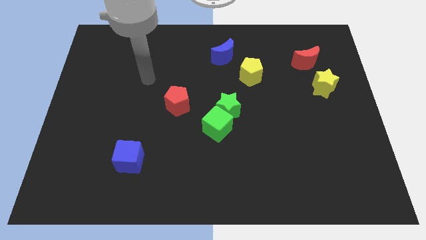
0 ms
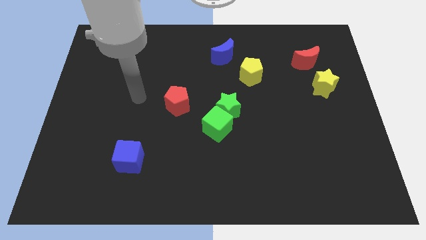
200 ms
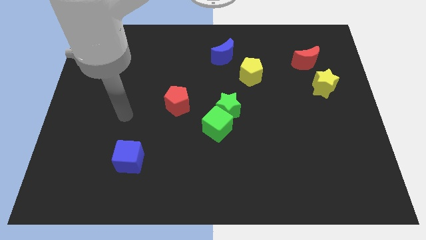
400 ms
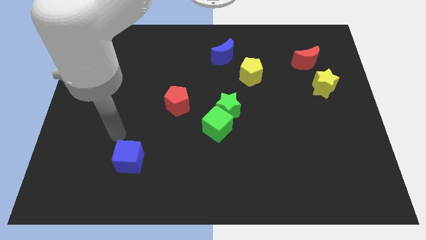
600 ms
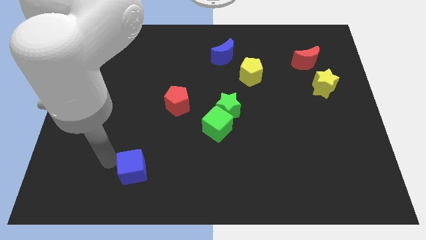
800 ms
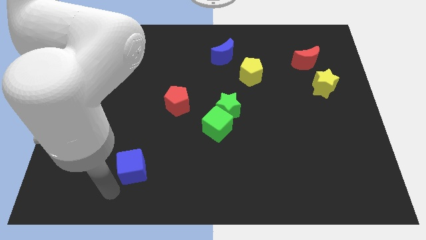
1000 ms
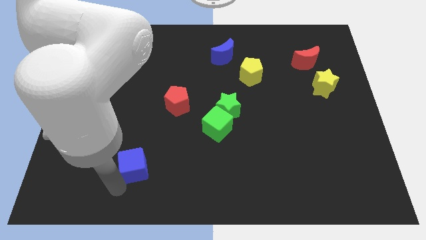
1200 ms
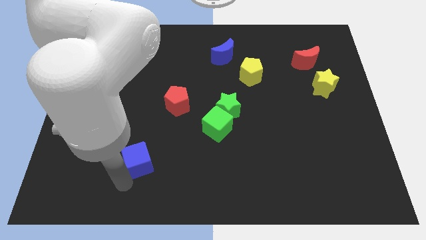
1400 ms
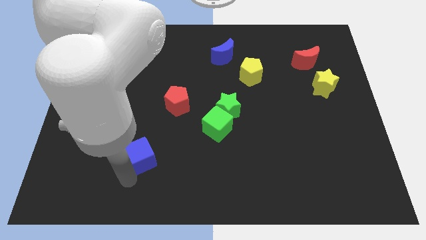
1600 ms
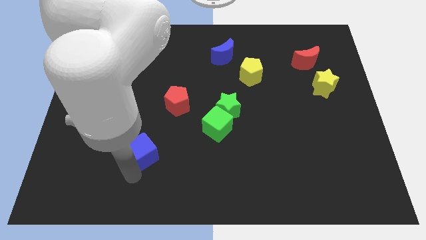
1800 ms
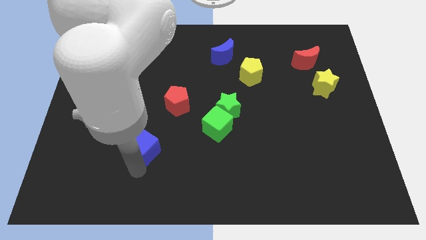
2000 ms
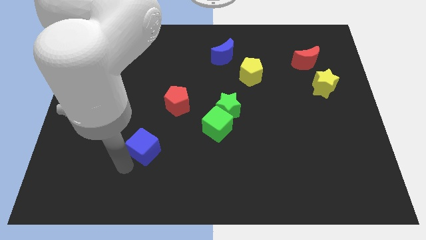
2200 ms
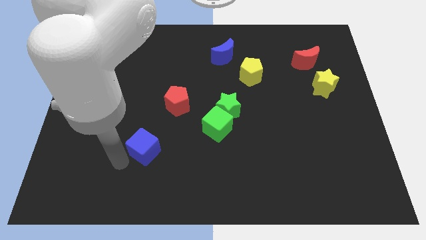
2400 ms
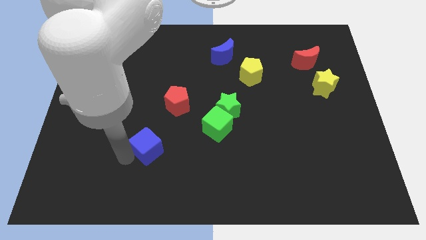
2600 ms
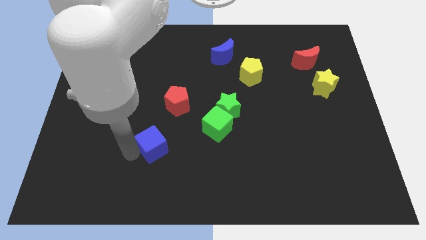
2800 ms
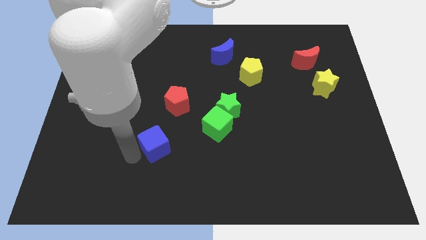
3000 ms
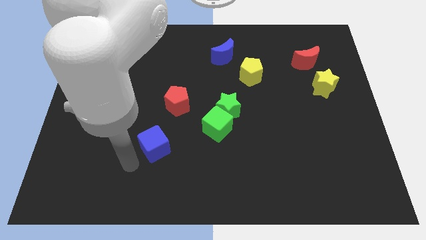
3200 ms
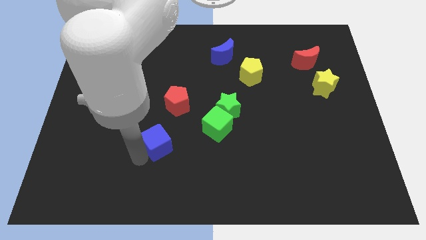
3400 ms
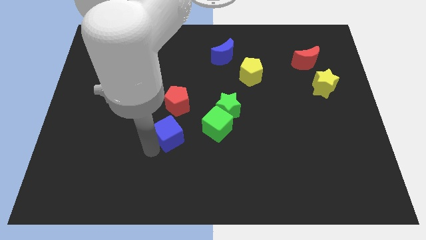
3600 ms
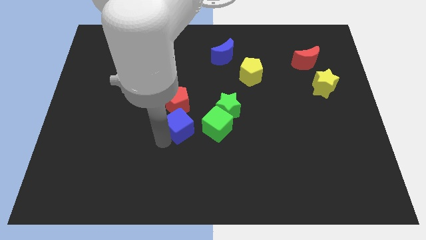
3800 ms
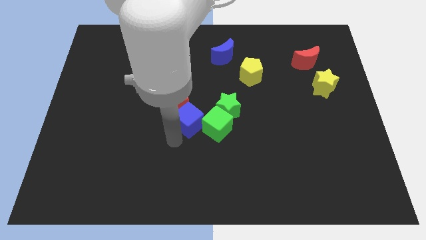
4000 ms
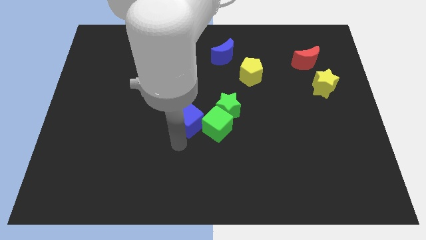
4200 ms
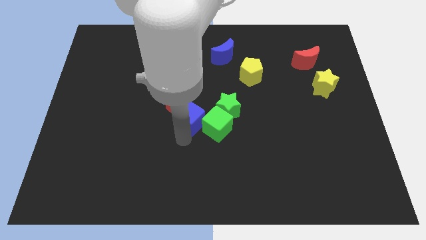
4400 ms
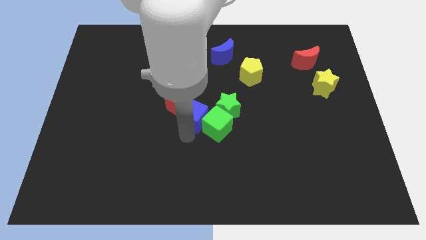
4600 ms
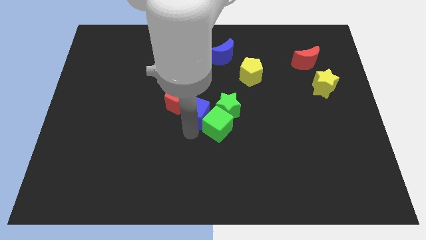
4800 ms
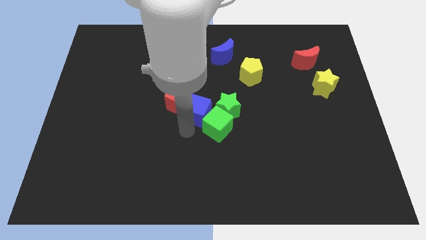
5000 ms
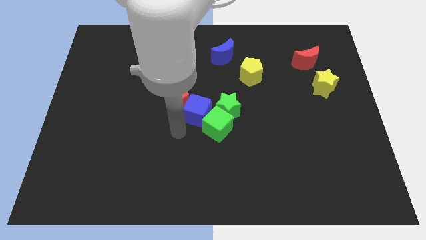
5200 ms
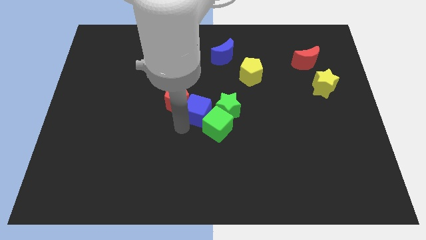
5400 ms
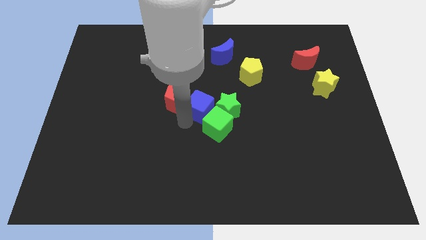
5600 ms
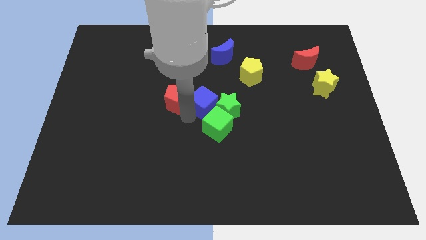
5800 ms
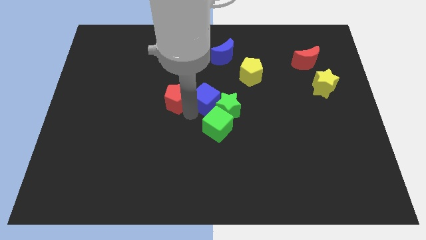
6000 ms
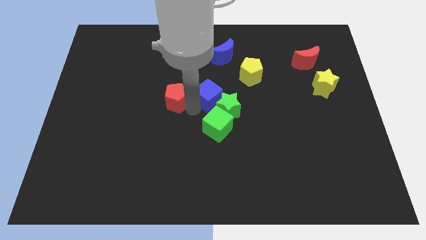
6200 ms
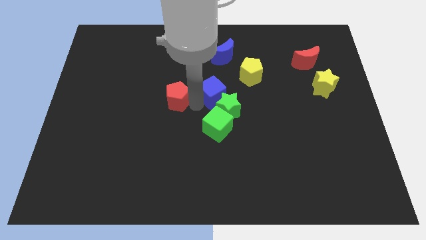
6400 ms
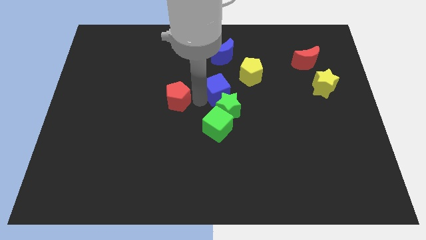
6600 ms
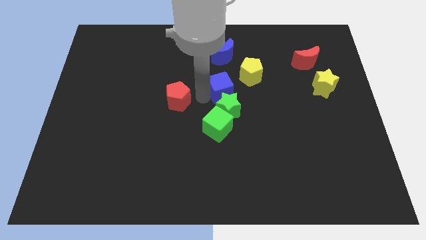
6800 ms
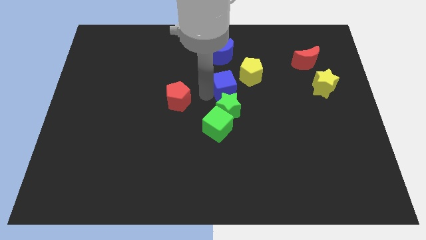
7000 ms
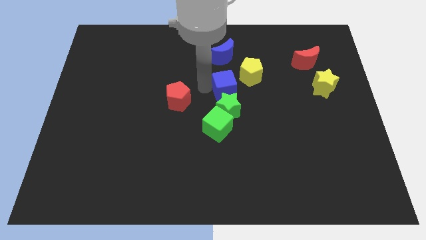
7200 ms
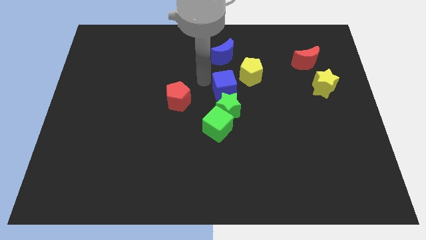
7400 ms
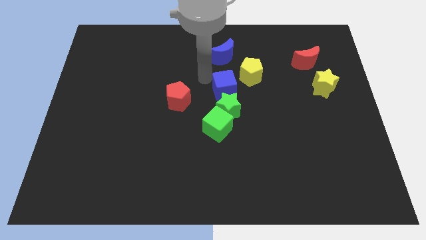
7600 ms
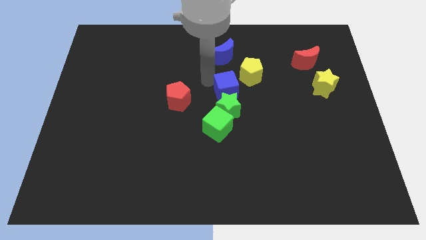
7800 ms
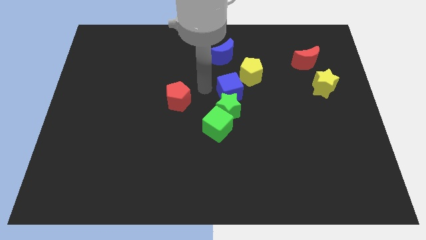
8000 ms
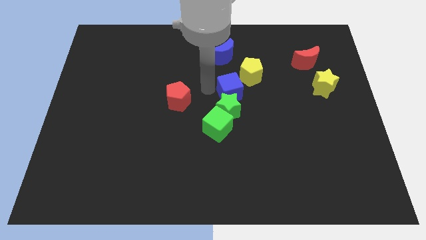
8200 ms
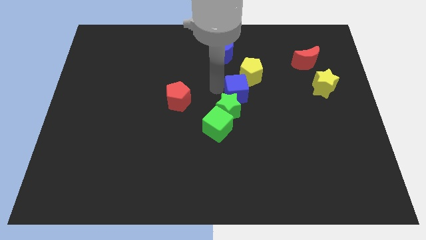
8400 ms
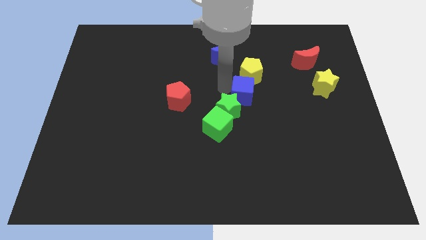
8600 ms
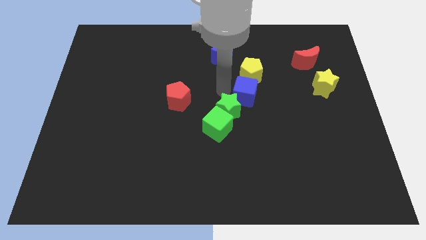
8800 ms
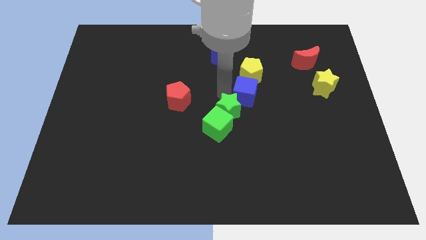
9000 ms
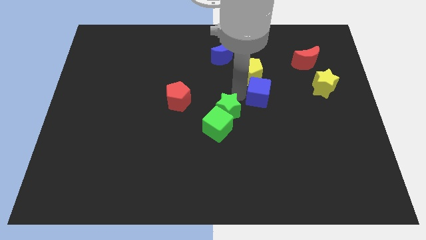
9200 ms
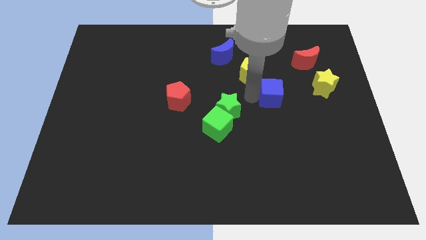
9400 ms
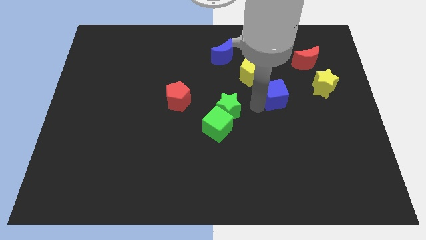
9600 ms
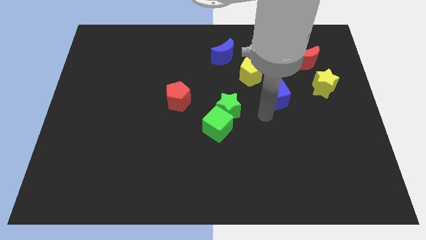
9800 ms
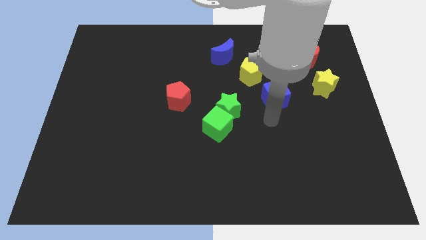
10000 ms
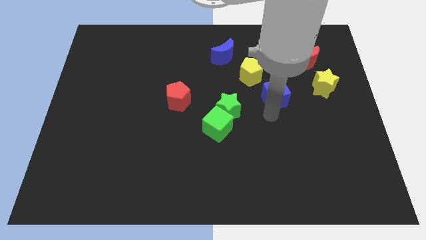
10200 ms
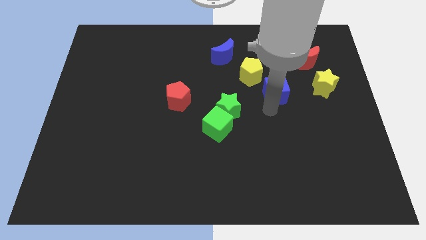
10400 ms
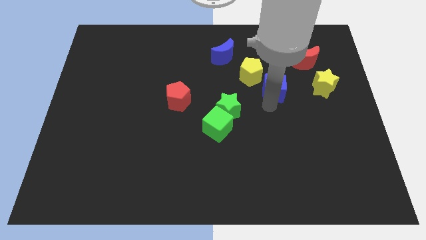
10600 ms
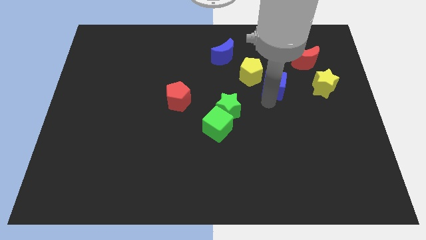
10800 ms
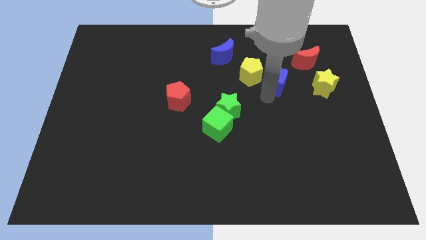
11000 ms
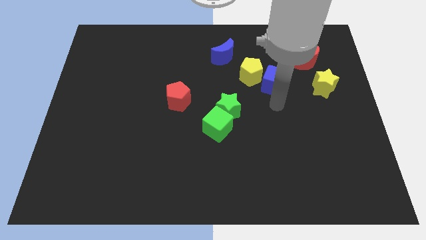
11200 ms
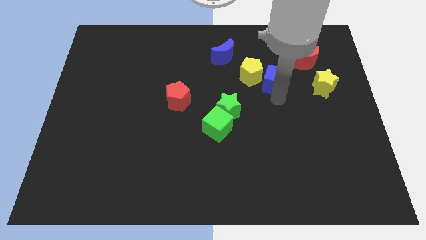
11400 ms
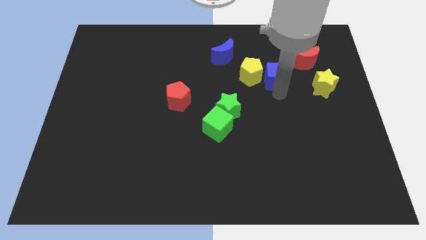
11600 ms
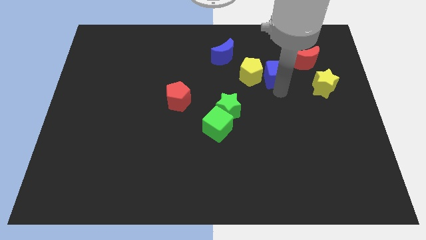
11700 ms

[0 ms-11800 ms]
put the blue cube diagonally up and to the right of the yellow pentagon

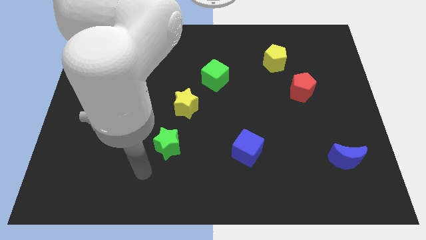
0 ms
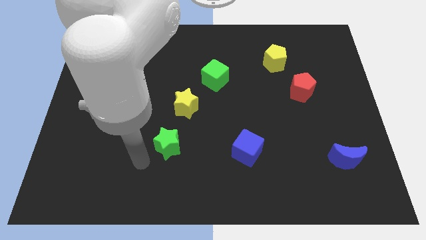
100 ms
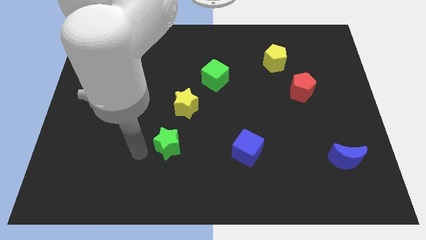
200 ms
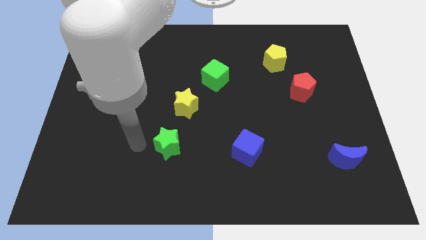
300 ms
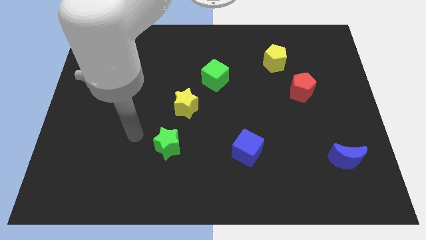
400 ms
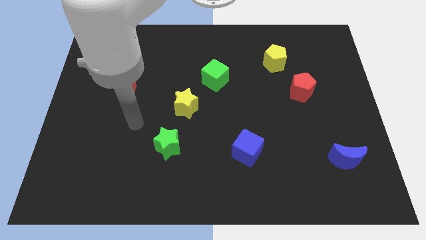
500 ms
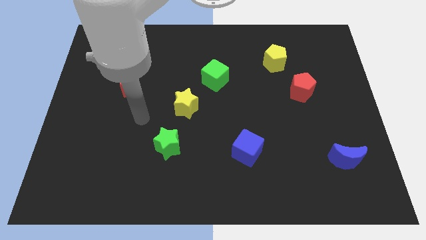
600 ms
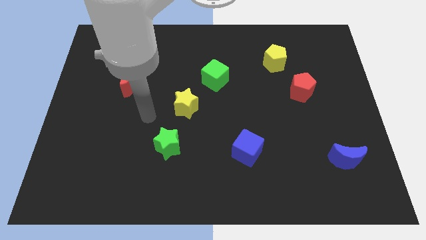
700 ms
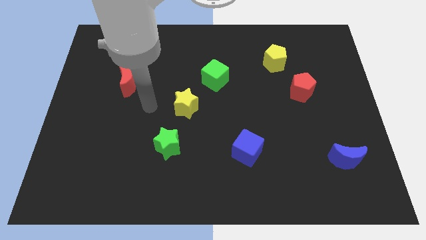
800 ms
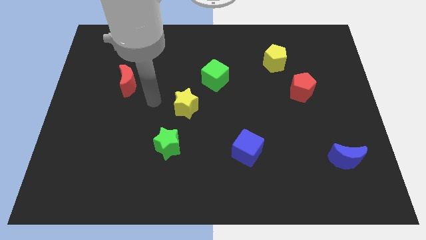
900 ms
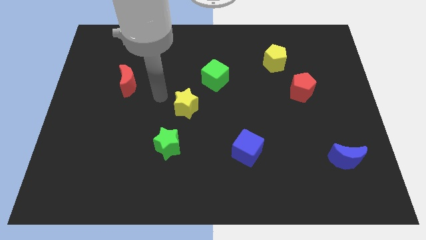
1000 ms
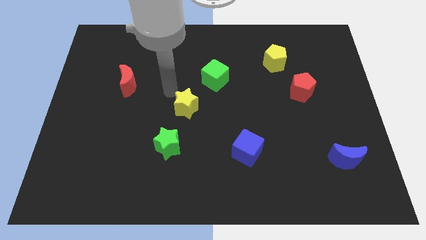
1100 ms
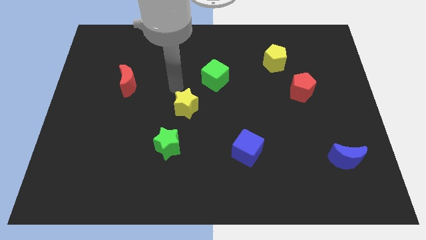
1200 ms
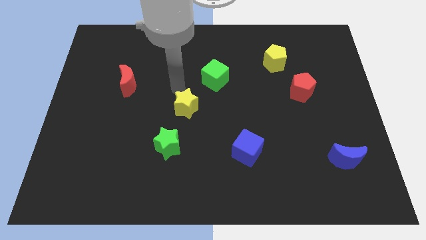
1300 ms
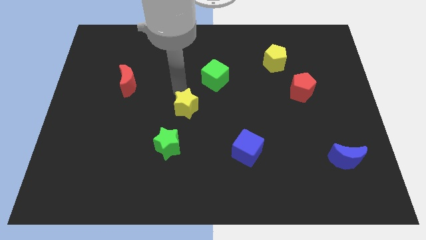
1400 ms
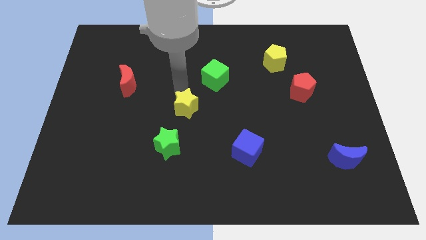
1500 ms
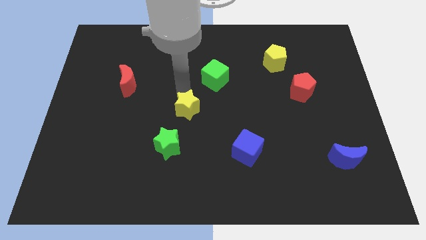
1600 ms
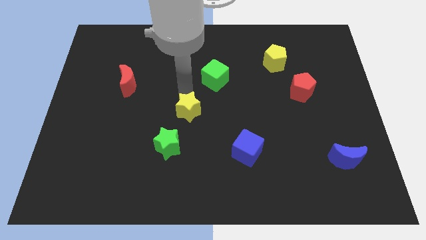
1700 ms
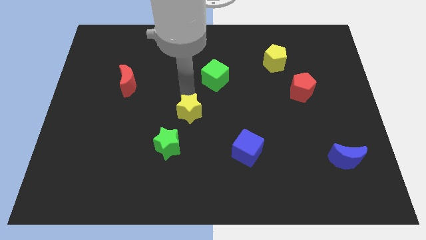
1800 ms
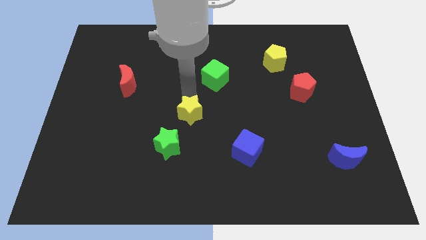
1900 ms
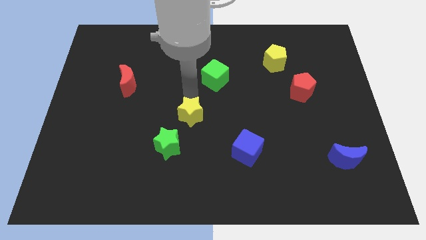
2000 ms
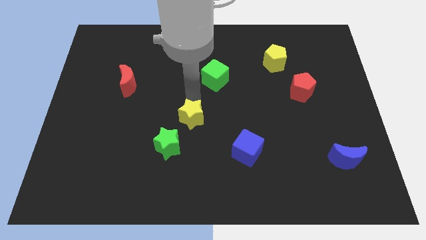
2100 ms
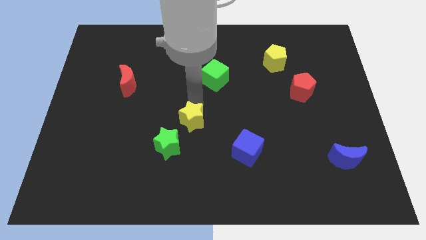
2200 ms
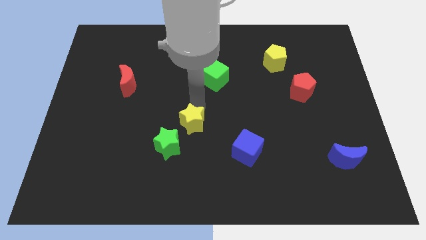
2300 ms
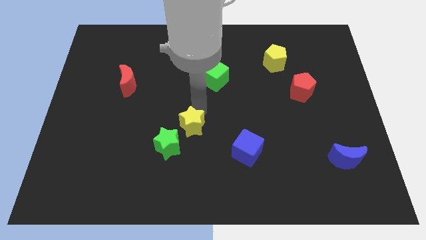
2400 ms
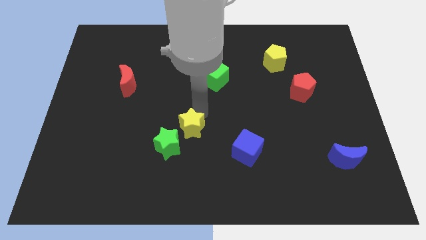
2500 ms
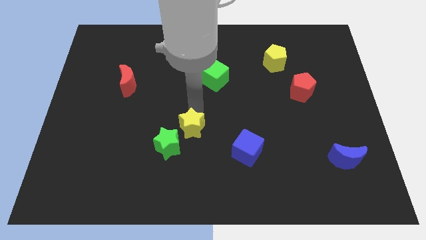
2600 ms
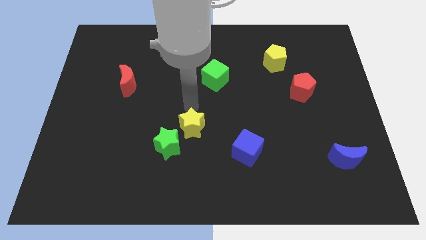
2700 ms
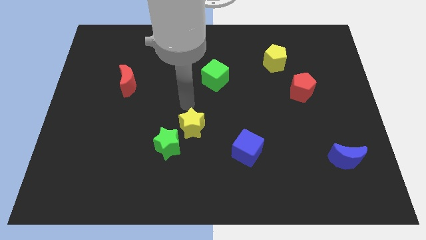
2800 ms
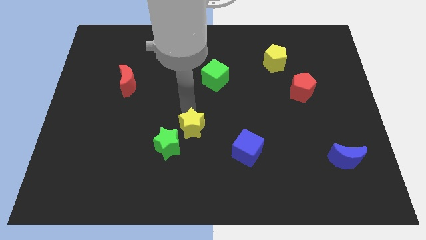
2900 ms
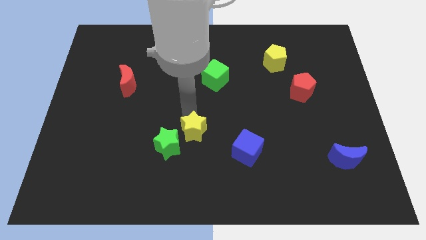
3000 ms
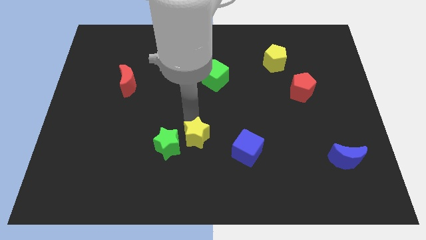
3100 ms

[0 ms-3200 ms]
move the yellow star to the left of the blue cube
